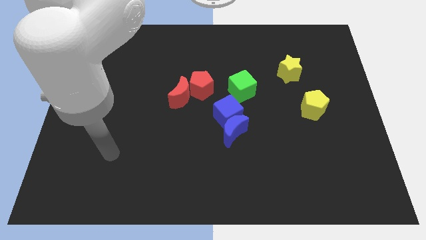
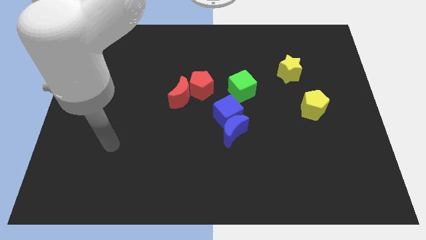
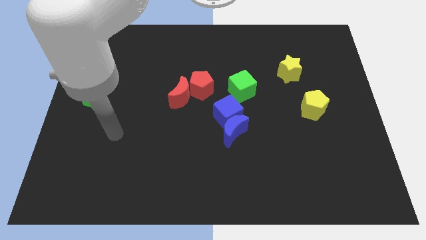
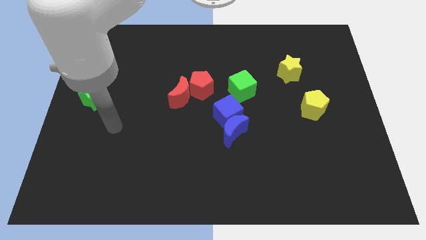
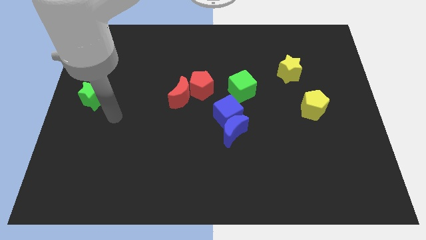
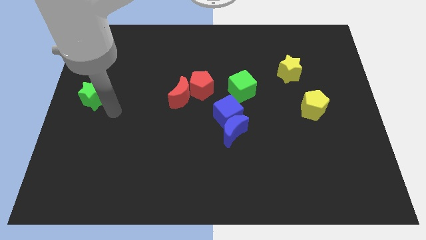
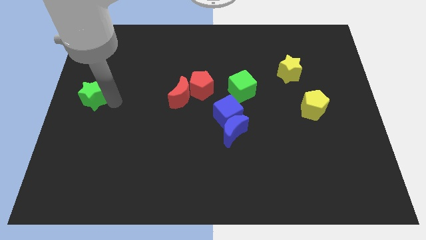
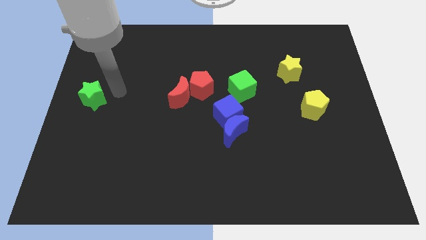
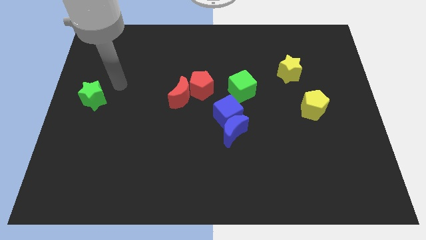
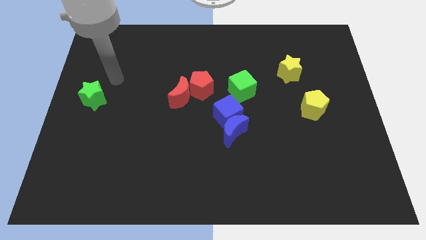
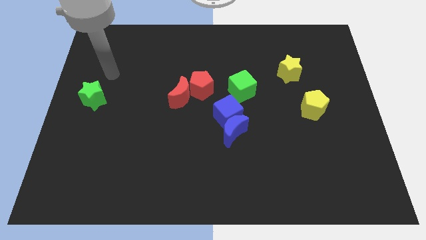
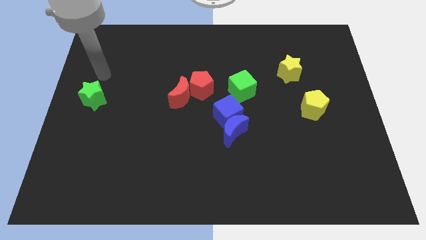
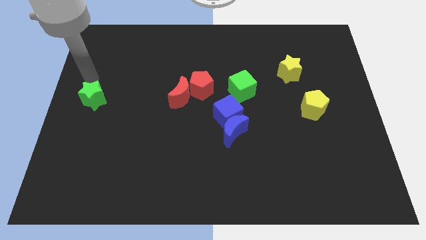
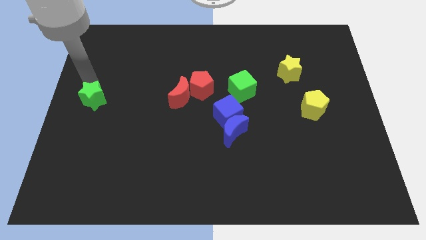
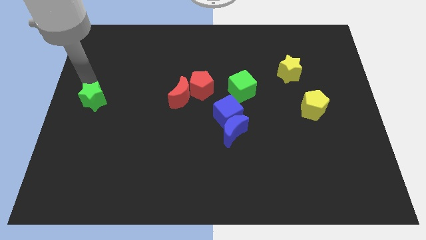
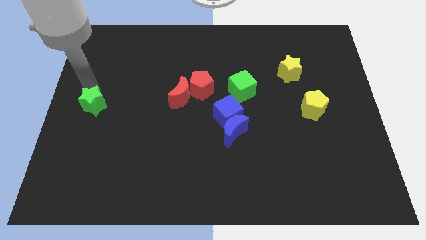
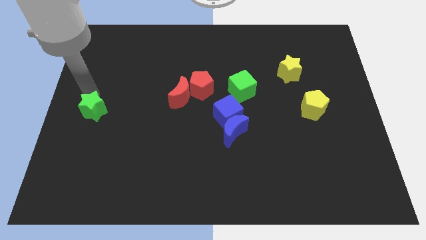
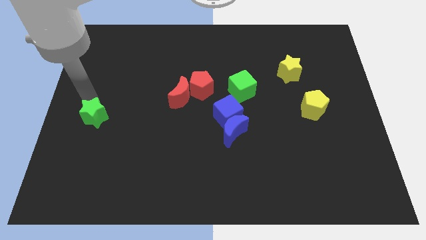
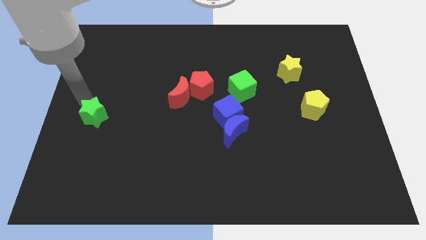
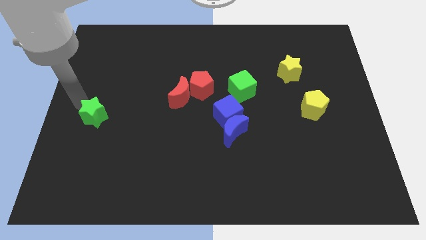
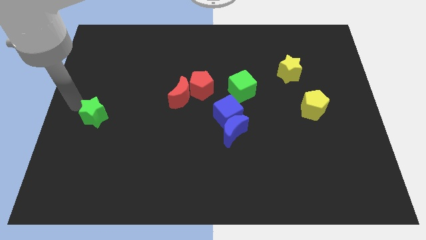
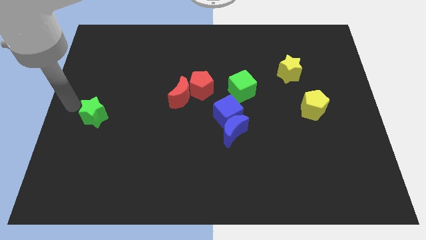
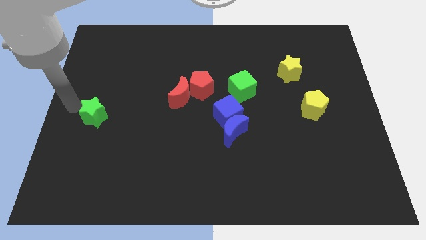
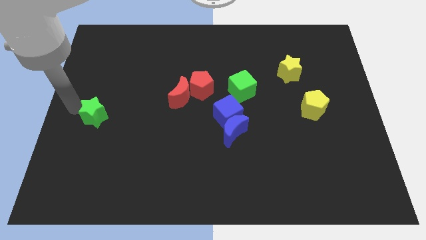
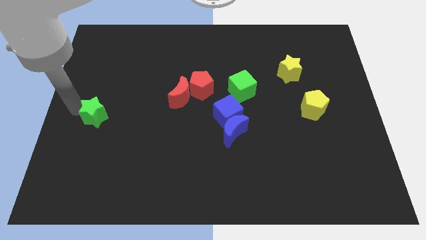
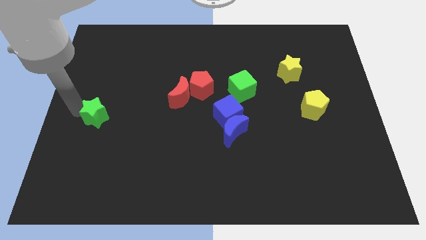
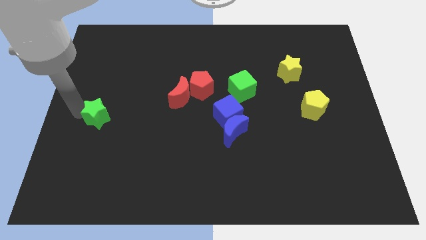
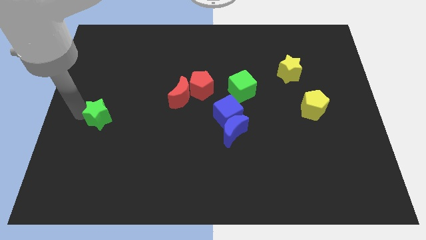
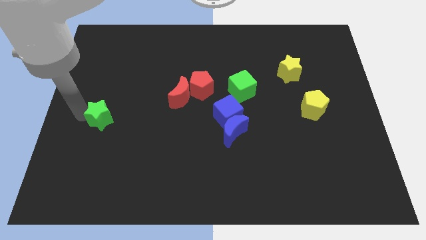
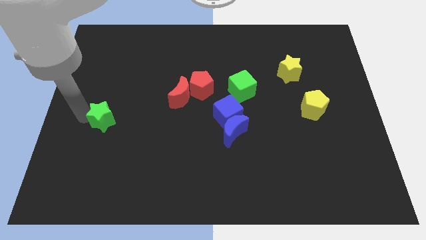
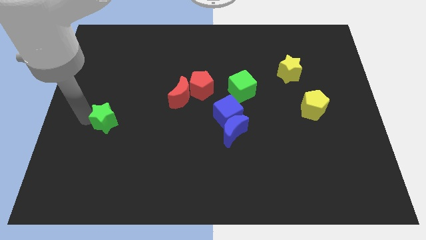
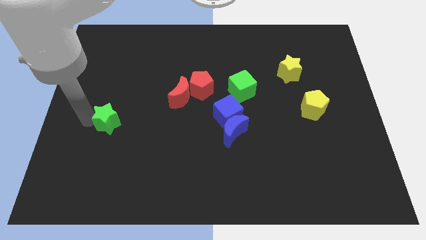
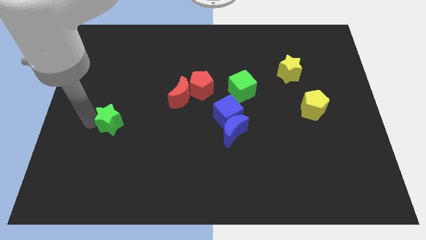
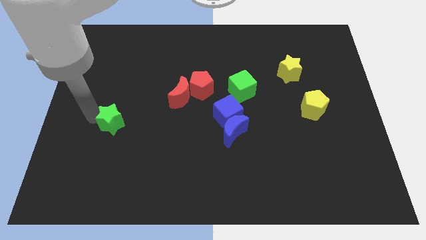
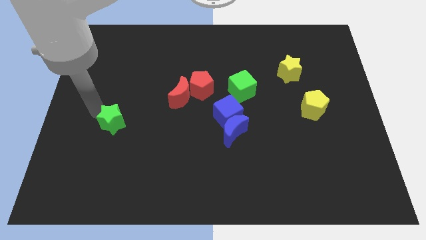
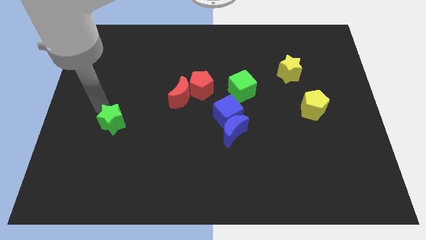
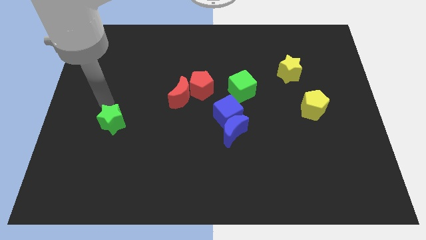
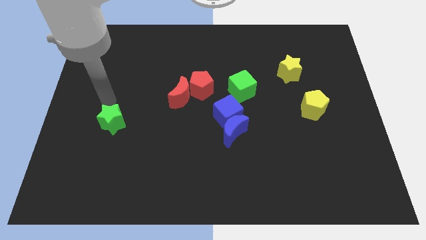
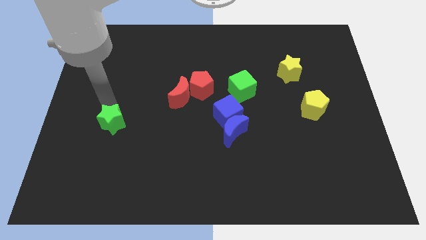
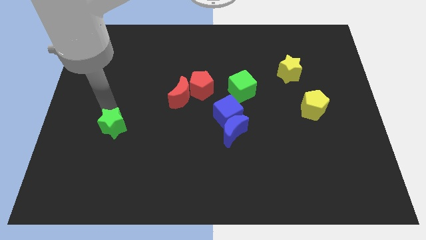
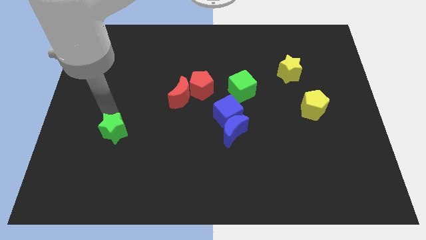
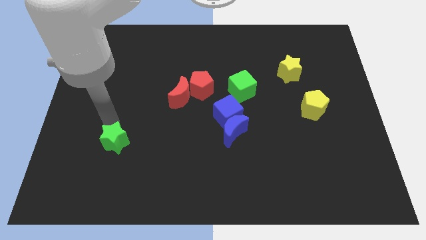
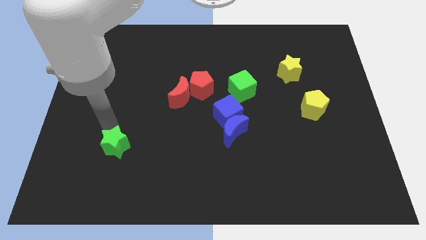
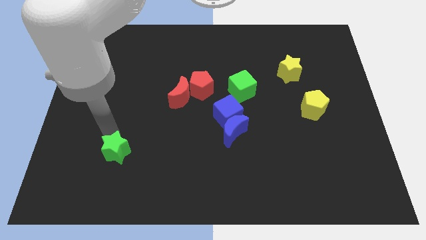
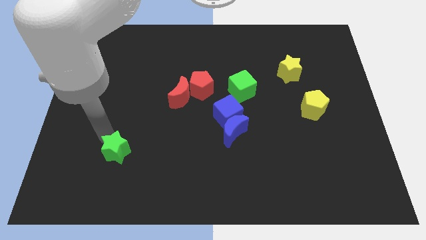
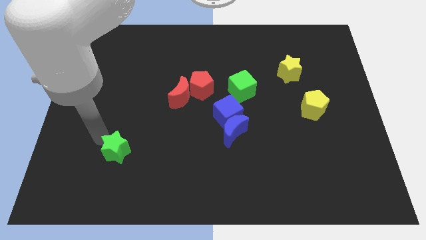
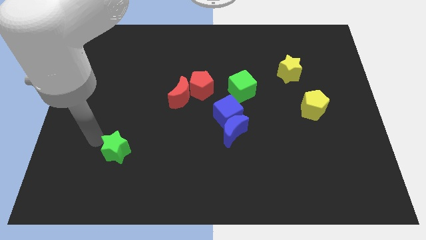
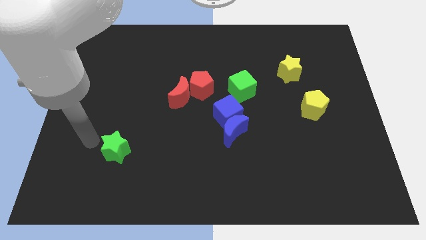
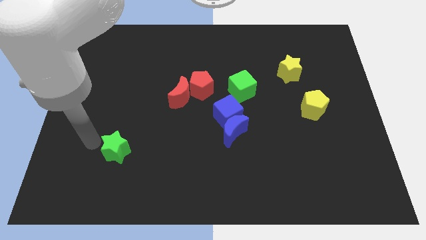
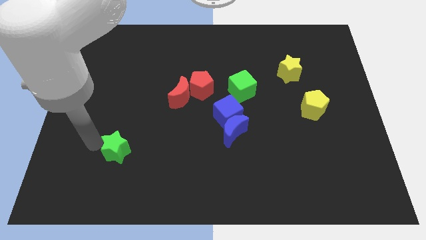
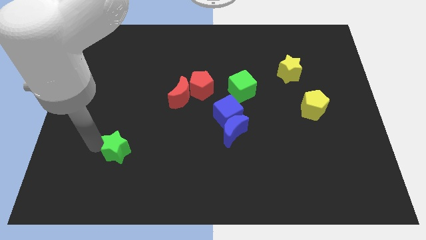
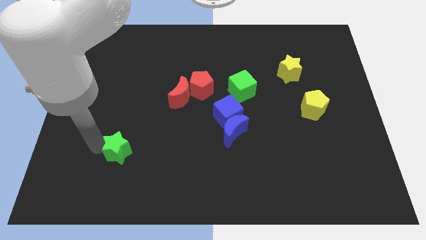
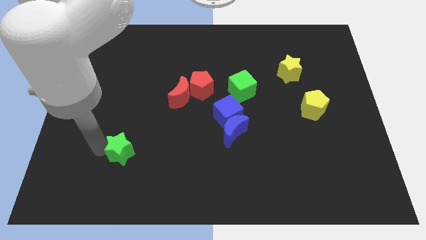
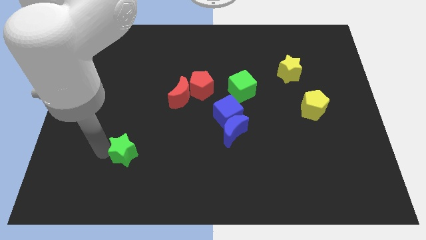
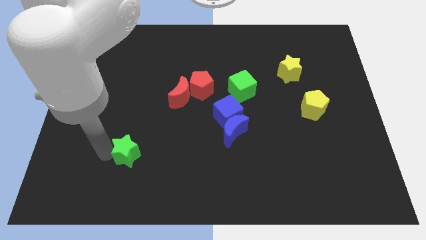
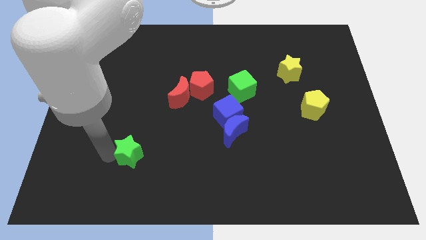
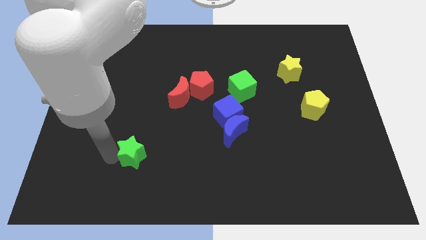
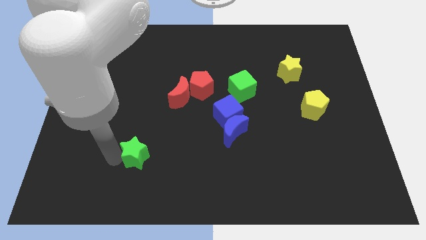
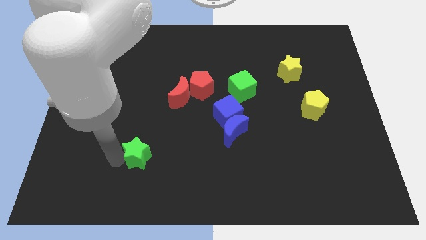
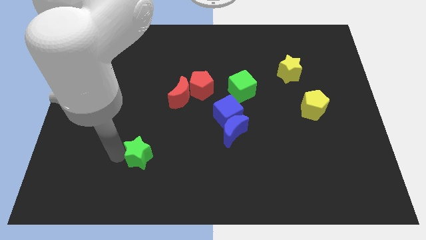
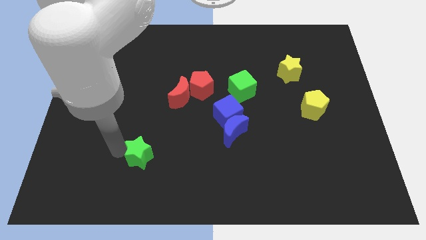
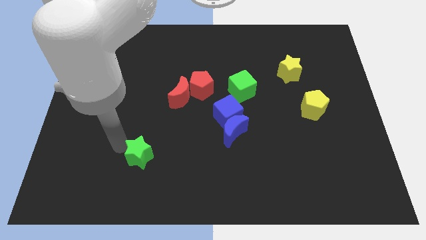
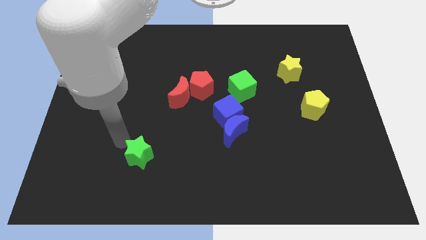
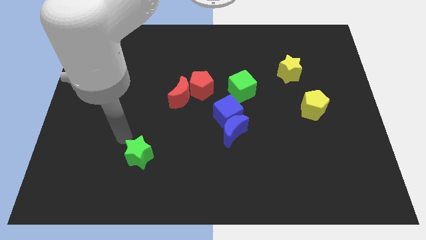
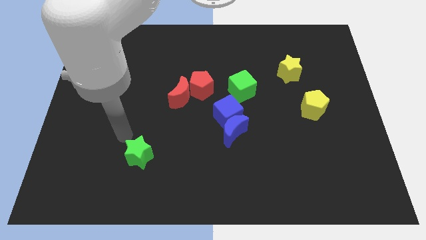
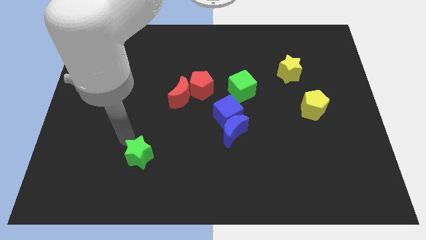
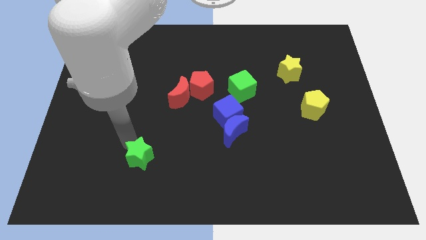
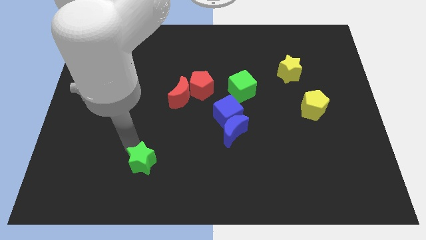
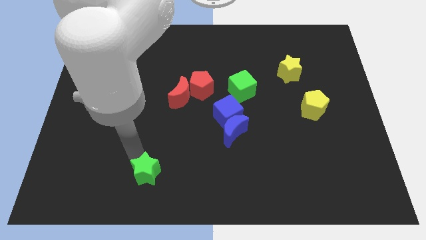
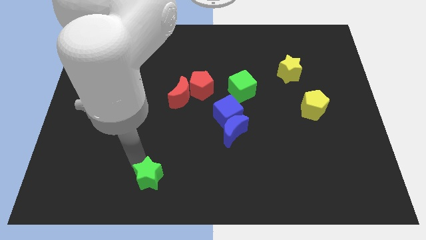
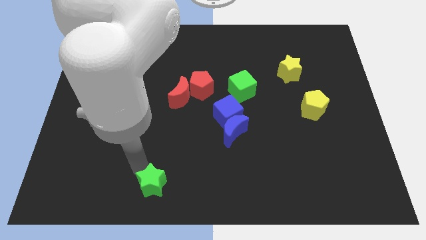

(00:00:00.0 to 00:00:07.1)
put the green star to the bottom side
